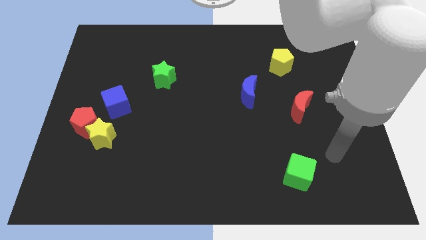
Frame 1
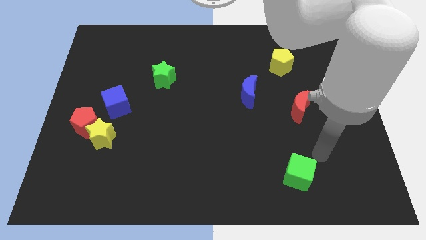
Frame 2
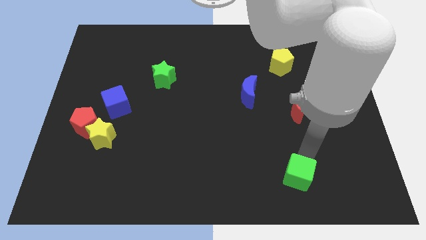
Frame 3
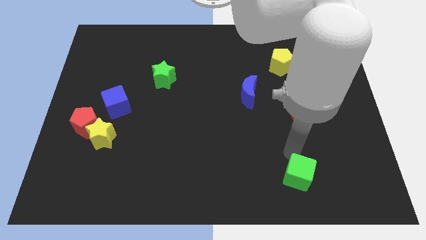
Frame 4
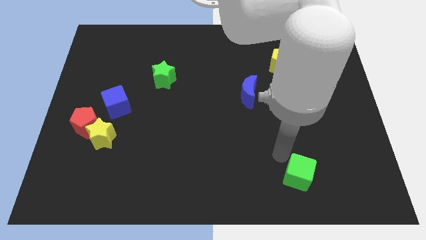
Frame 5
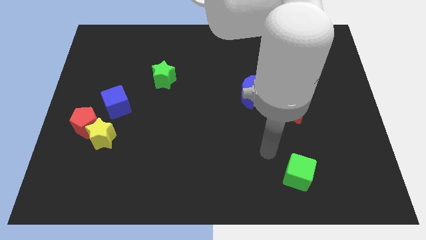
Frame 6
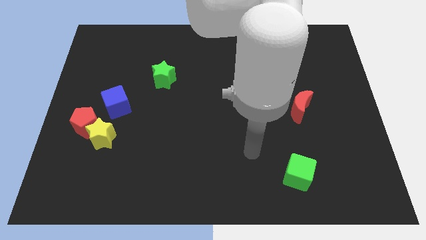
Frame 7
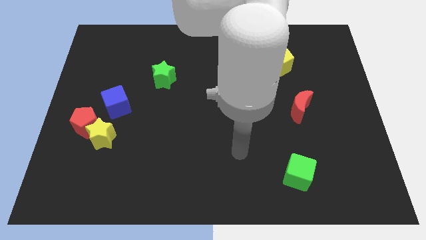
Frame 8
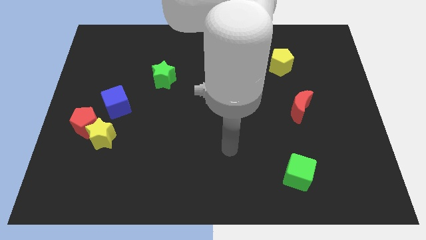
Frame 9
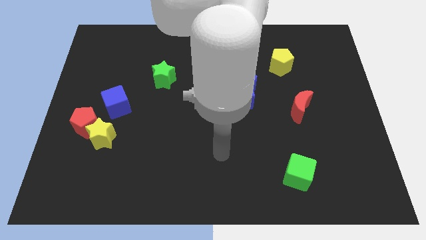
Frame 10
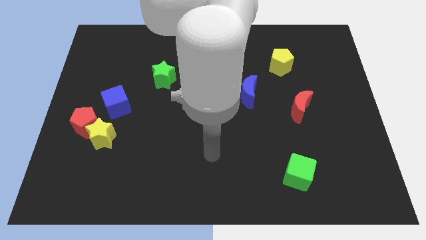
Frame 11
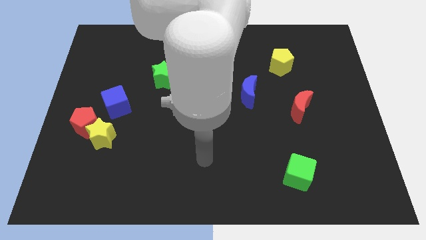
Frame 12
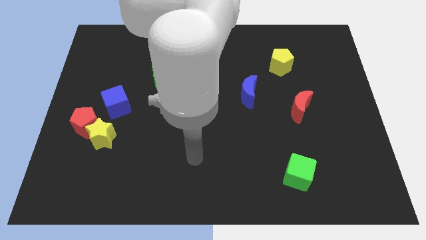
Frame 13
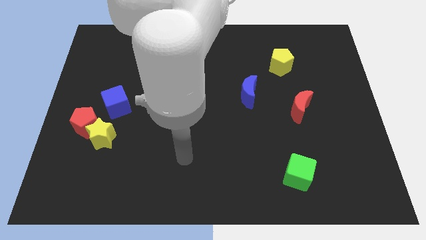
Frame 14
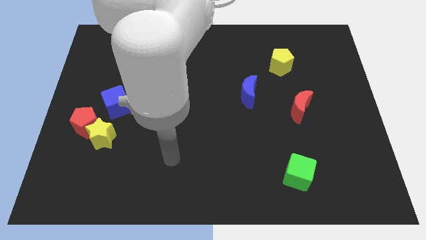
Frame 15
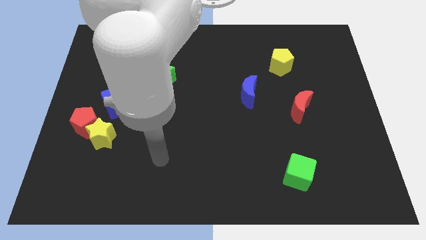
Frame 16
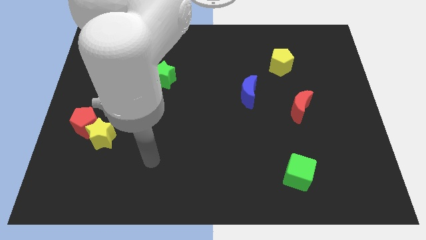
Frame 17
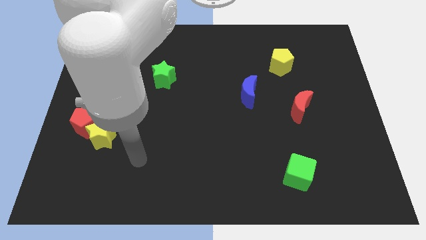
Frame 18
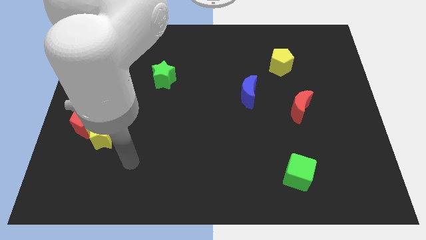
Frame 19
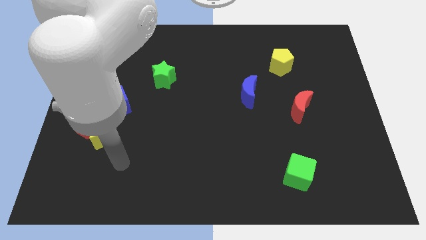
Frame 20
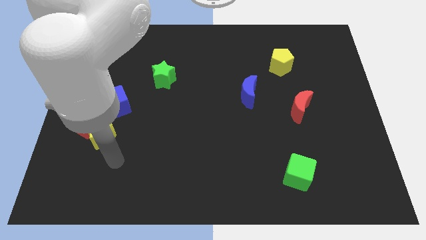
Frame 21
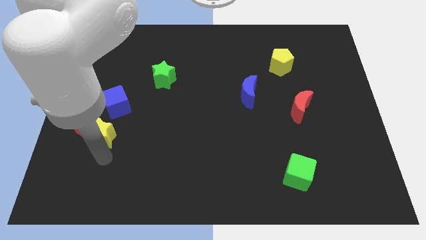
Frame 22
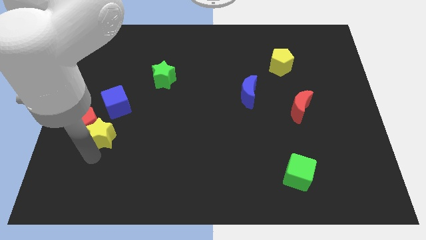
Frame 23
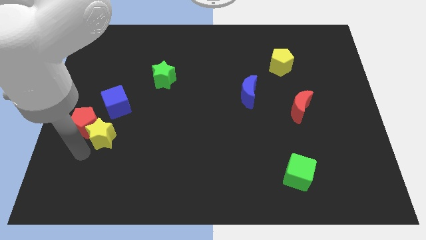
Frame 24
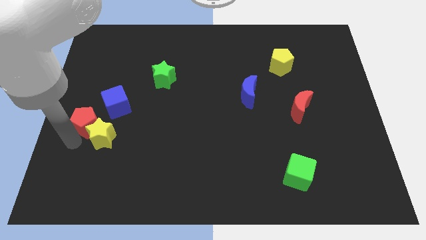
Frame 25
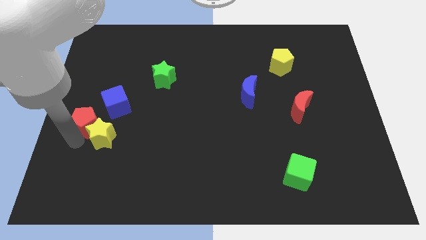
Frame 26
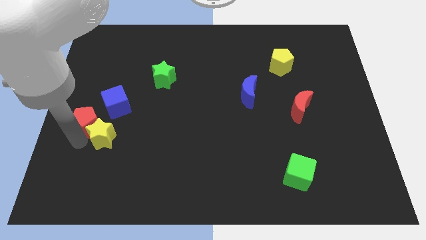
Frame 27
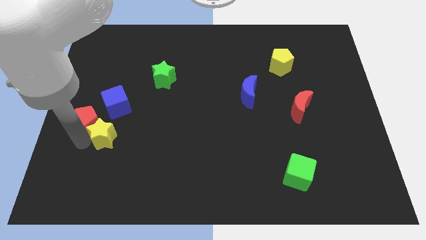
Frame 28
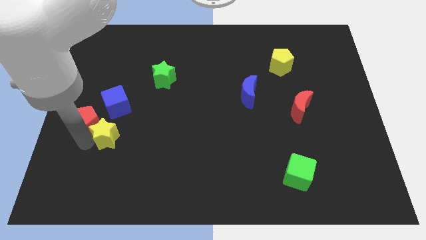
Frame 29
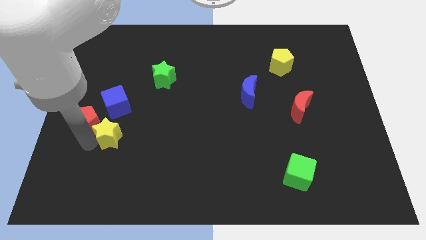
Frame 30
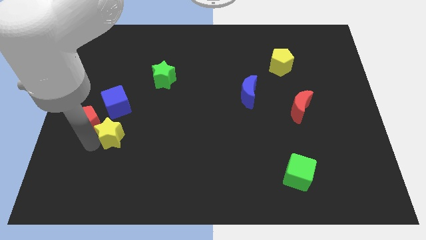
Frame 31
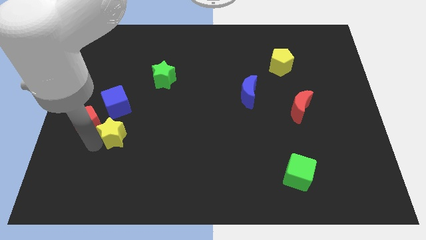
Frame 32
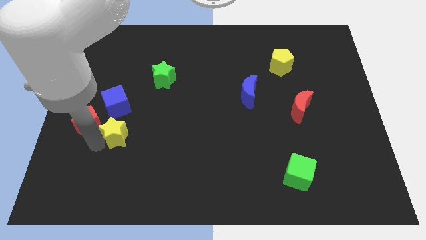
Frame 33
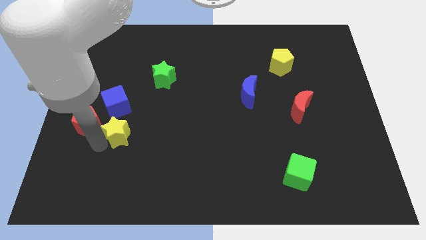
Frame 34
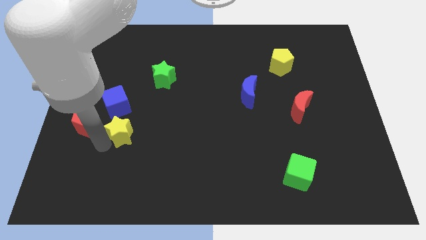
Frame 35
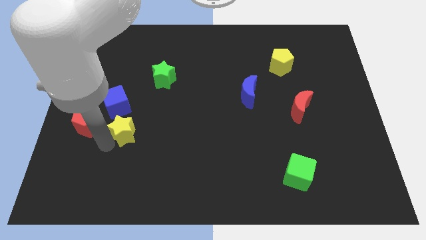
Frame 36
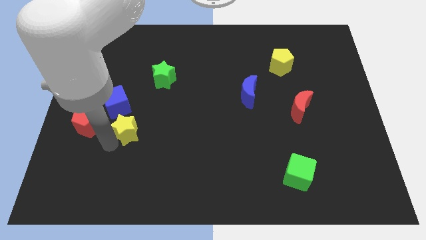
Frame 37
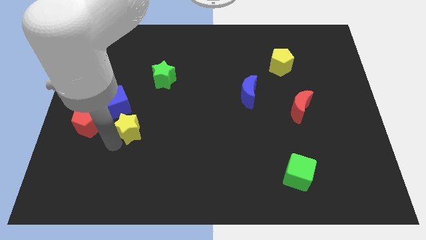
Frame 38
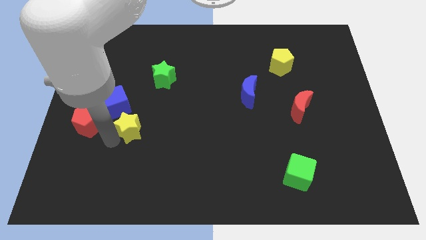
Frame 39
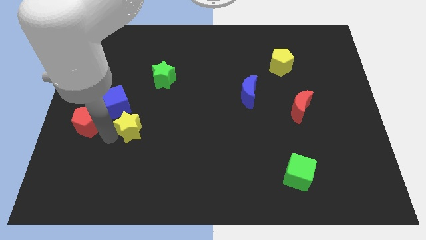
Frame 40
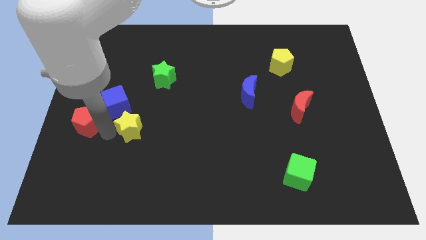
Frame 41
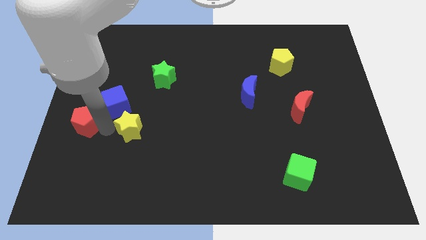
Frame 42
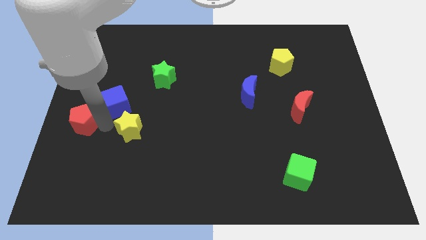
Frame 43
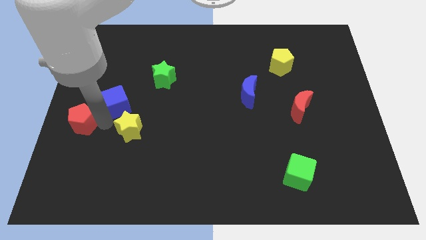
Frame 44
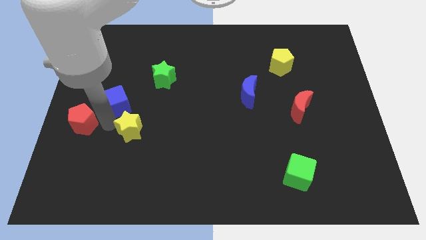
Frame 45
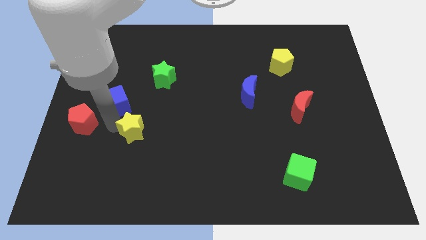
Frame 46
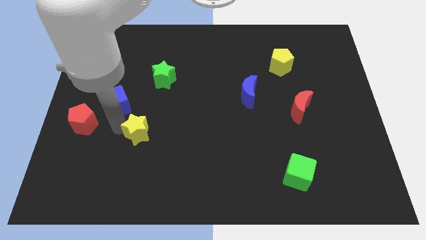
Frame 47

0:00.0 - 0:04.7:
push the yellow star slightly right

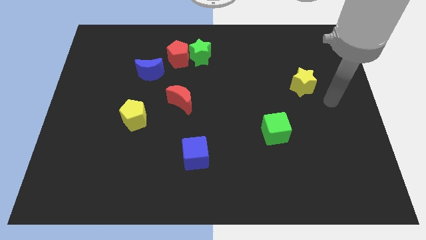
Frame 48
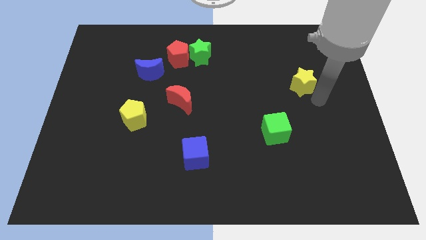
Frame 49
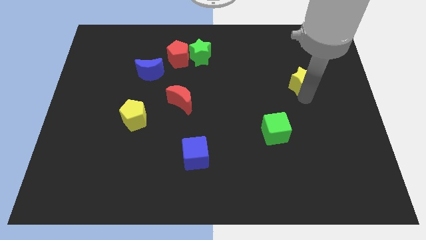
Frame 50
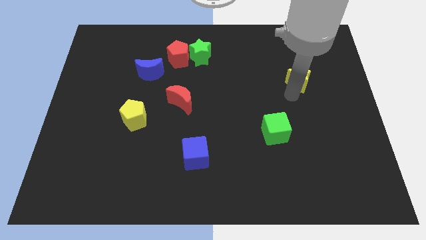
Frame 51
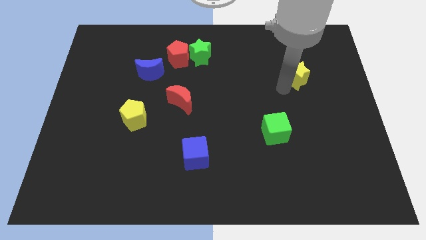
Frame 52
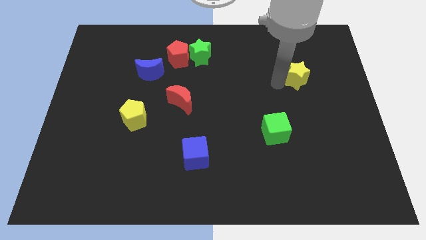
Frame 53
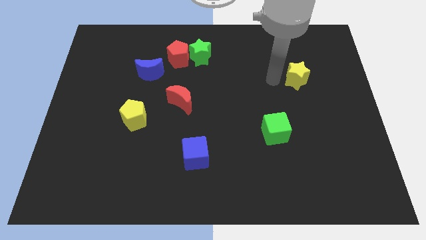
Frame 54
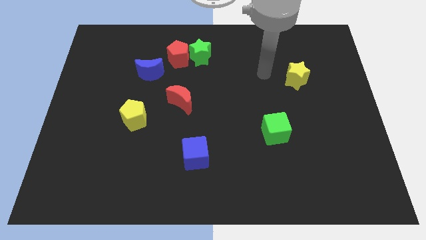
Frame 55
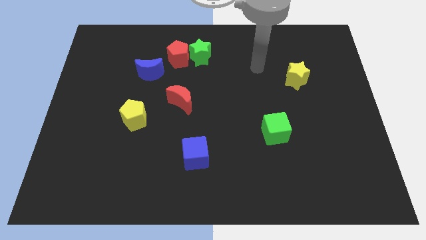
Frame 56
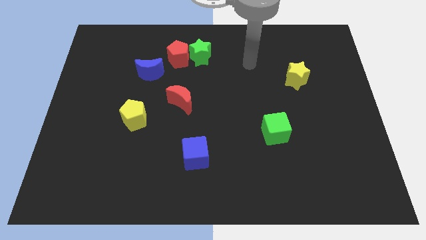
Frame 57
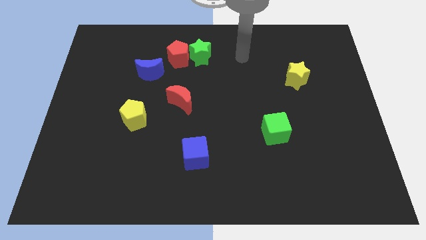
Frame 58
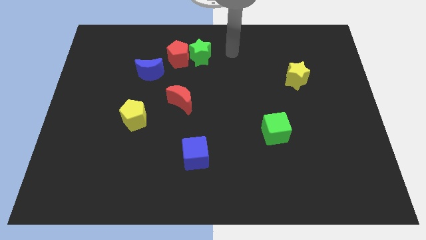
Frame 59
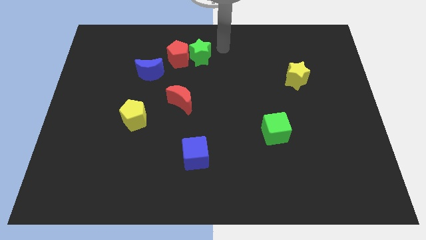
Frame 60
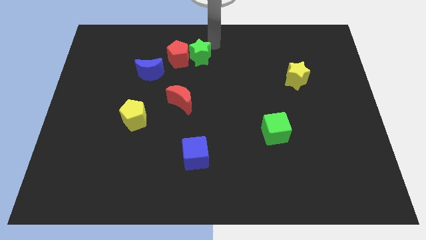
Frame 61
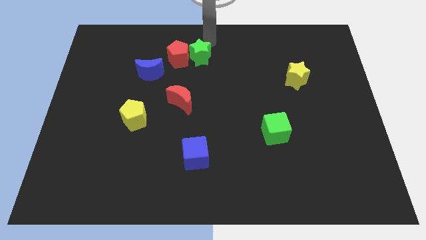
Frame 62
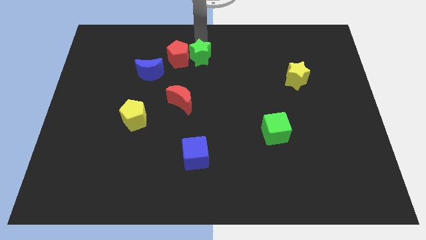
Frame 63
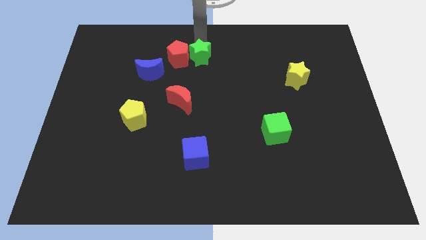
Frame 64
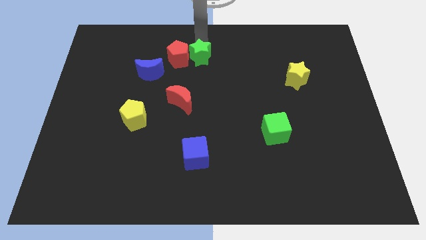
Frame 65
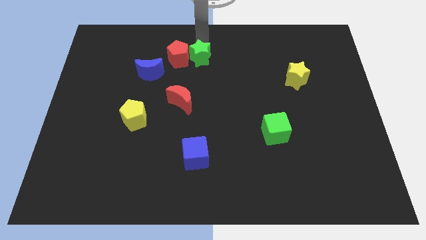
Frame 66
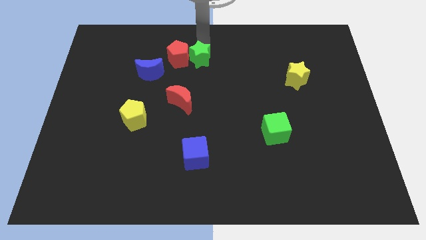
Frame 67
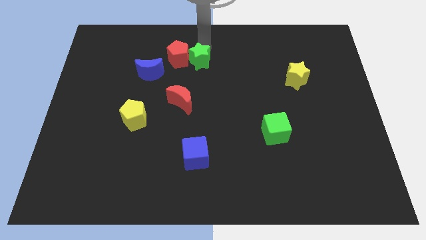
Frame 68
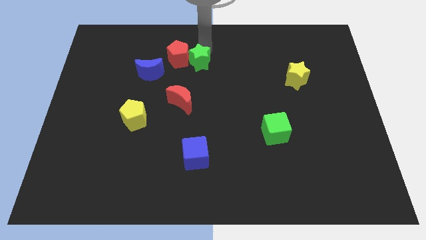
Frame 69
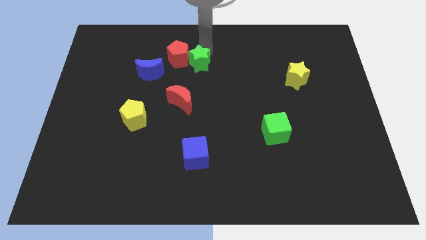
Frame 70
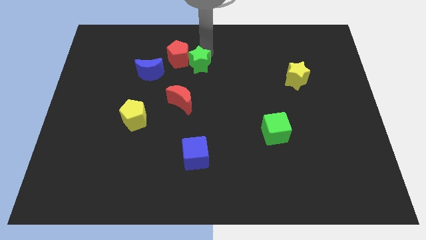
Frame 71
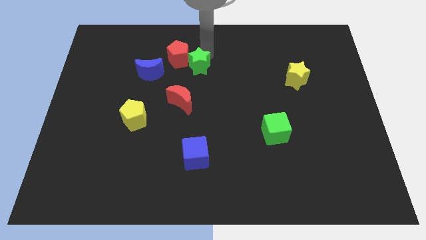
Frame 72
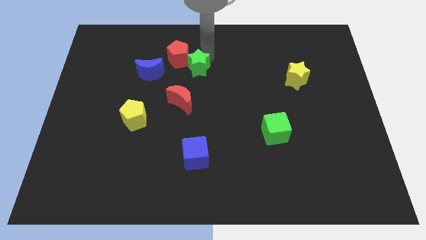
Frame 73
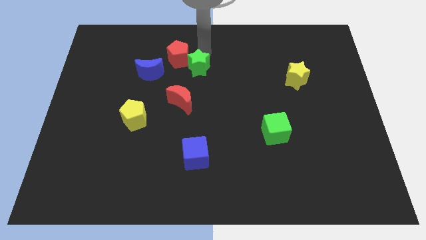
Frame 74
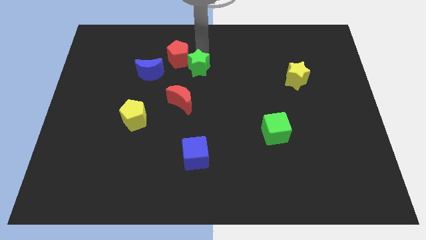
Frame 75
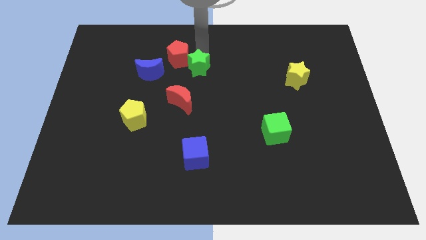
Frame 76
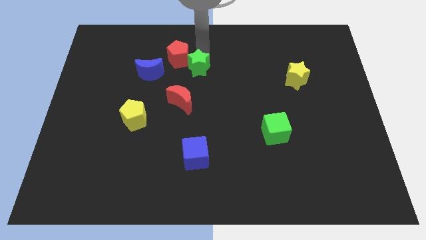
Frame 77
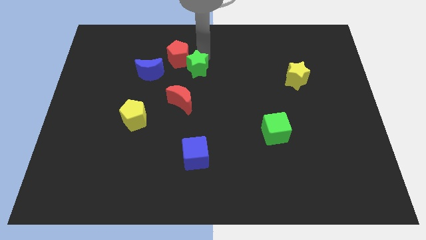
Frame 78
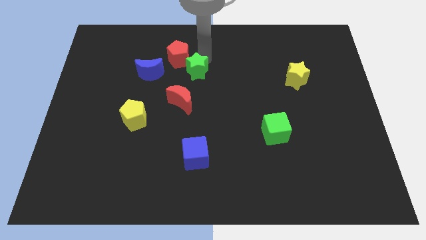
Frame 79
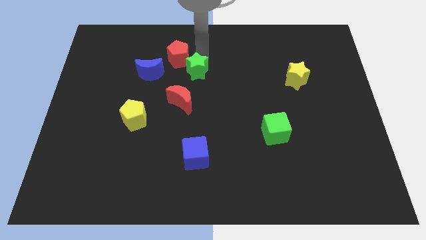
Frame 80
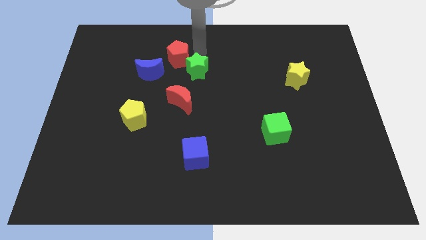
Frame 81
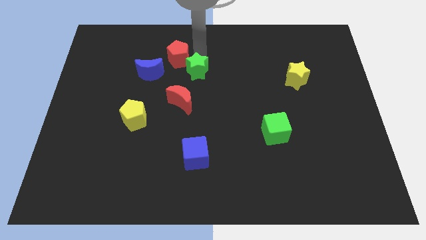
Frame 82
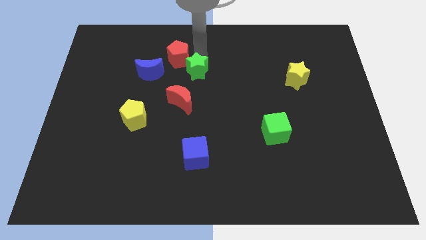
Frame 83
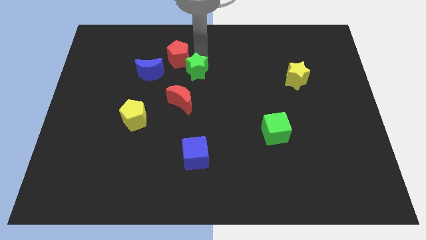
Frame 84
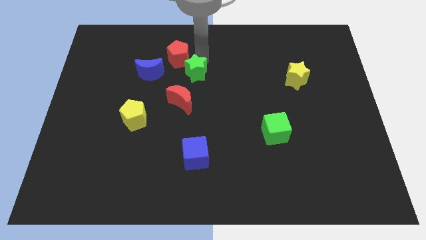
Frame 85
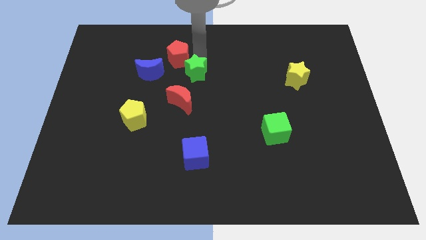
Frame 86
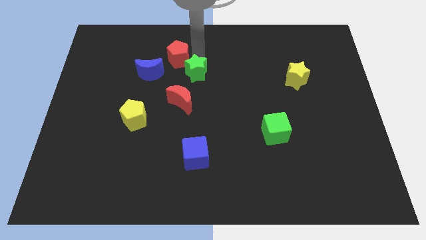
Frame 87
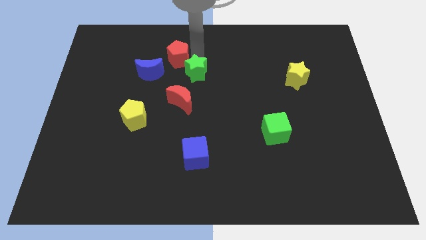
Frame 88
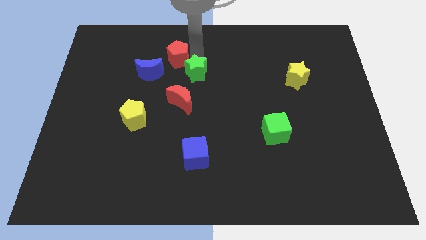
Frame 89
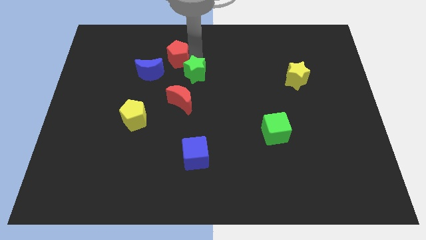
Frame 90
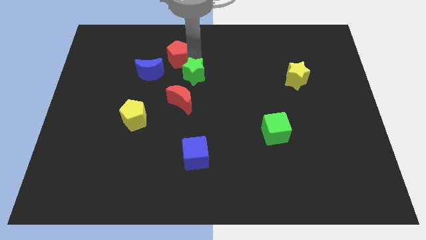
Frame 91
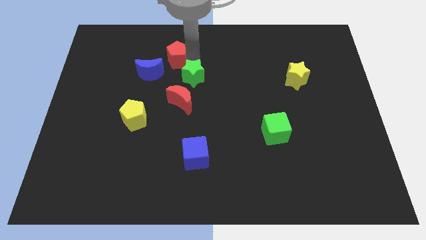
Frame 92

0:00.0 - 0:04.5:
slightly push the green star downwards
